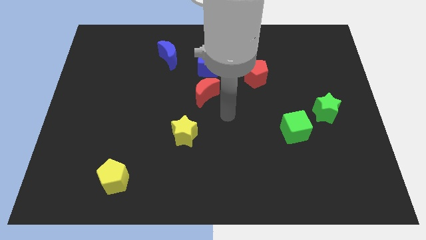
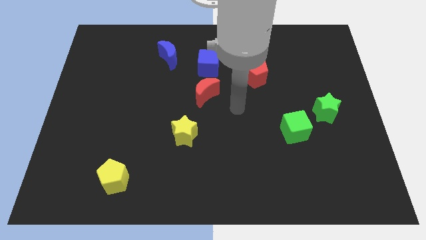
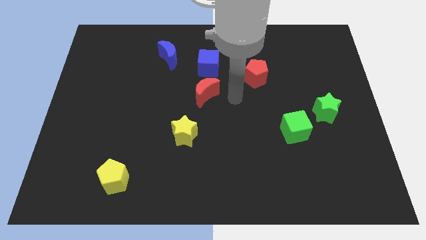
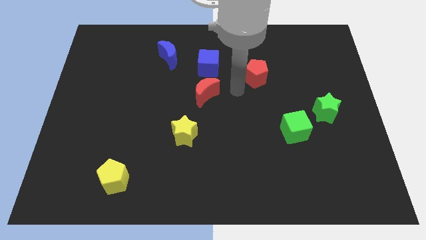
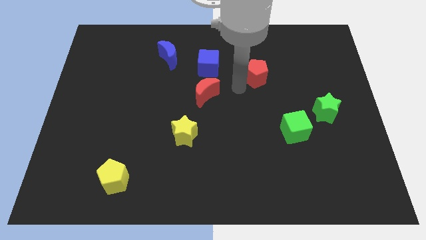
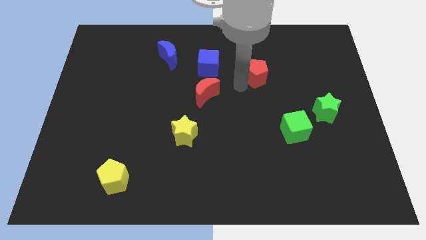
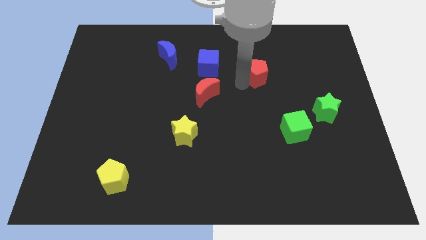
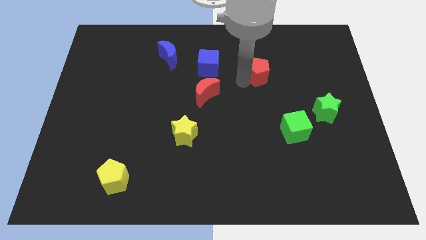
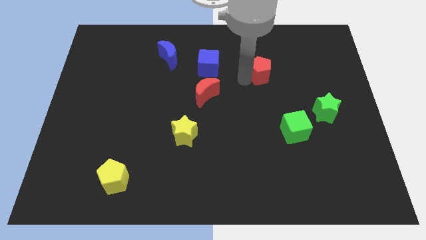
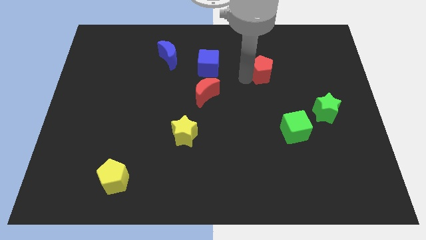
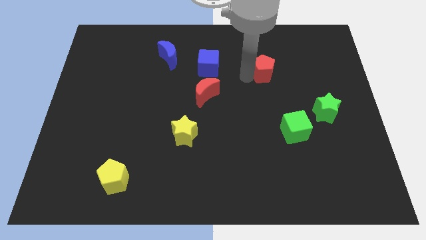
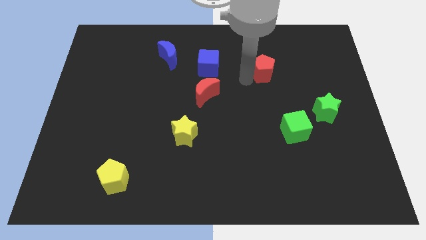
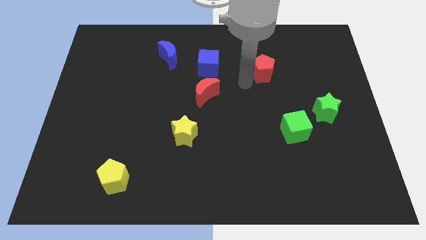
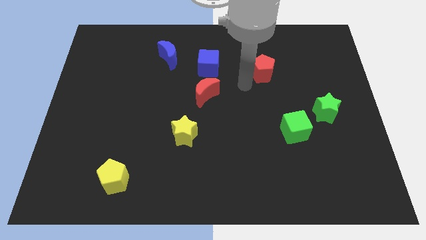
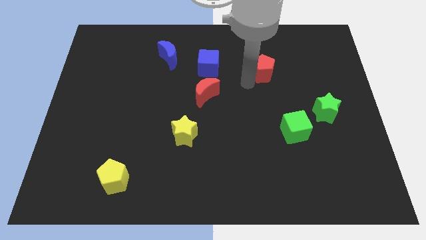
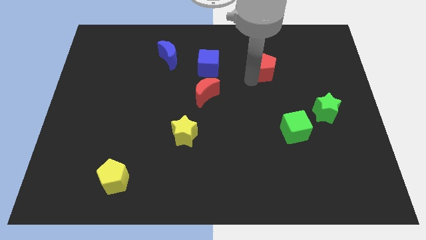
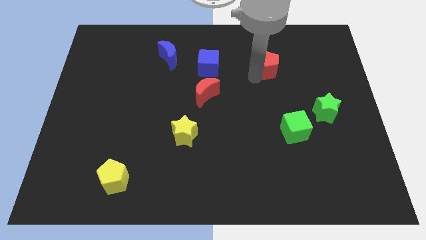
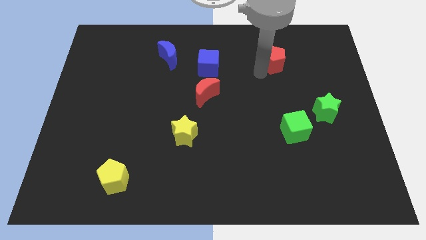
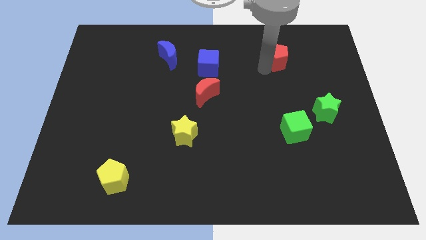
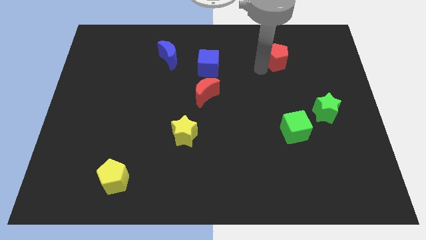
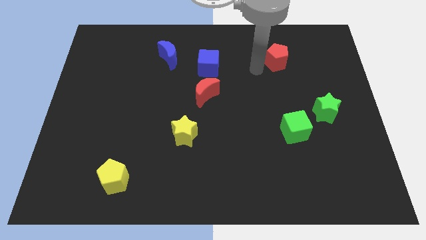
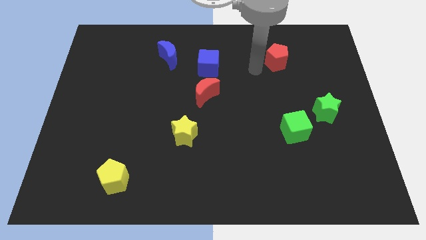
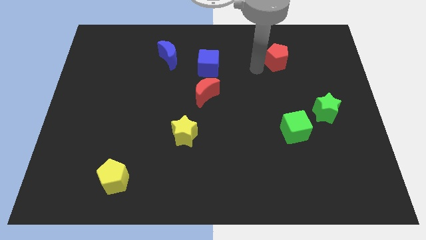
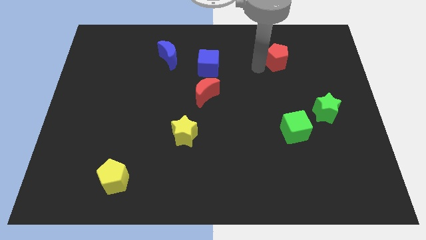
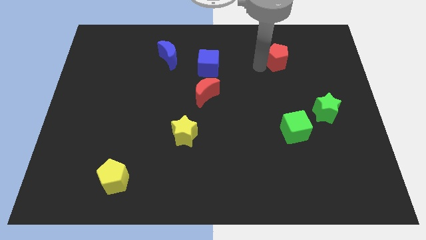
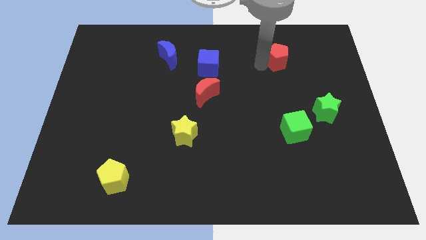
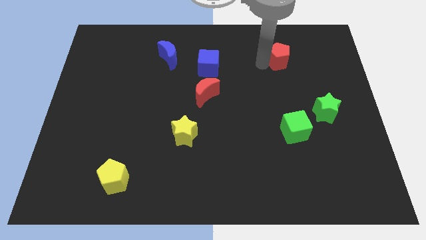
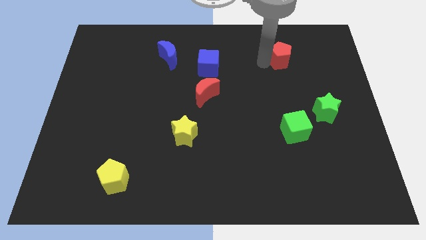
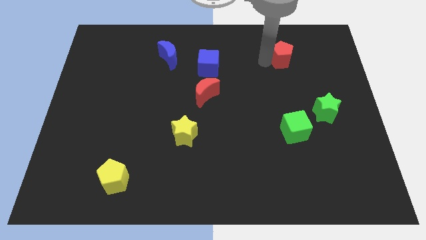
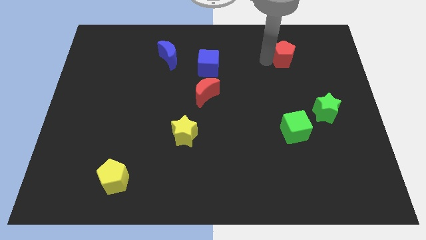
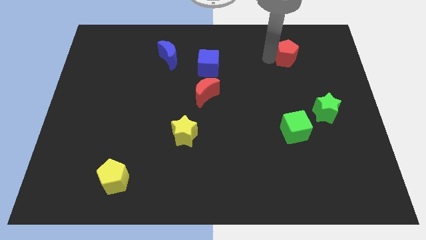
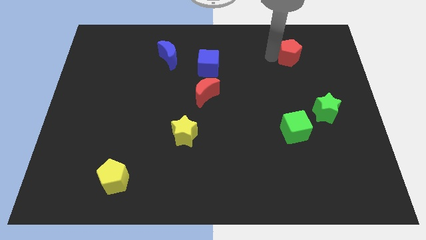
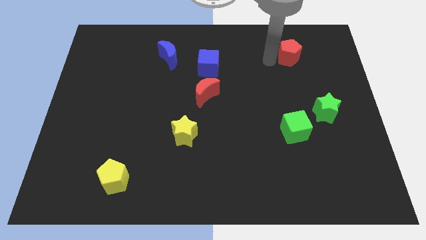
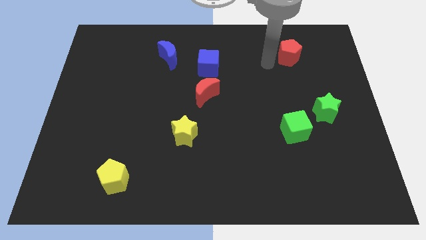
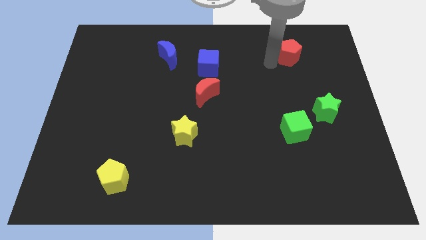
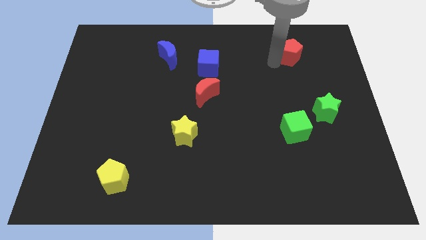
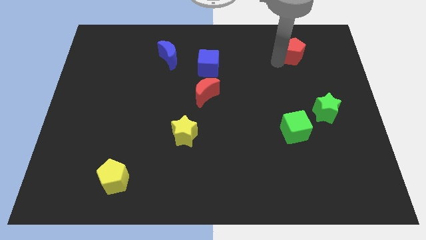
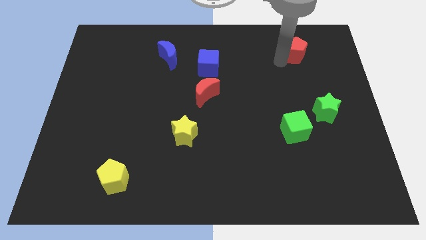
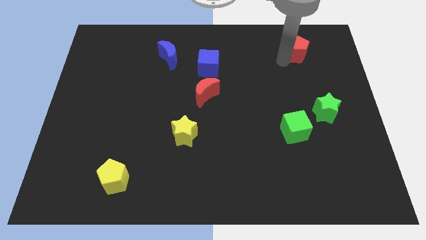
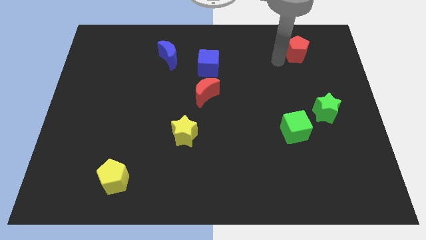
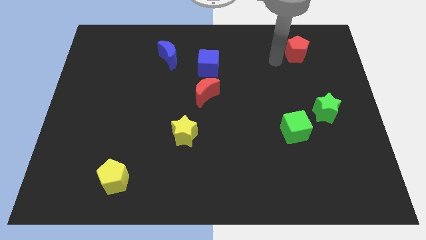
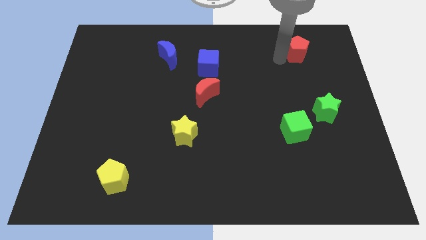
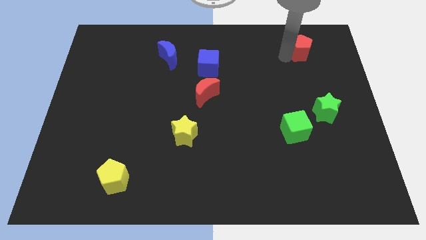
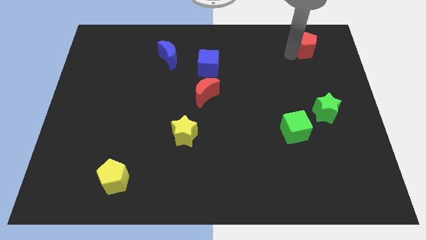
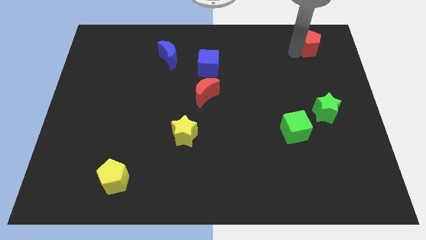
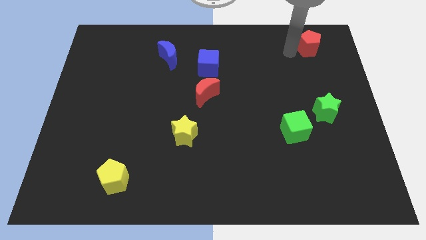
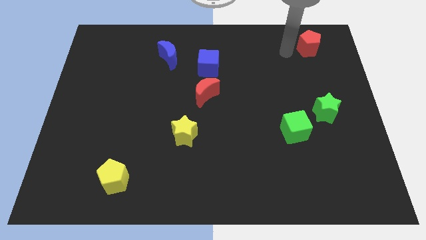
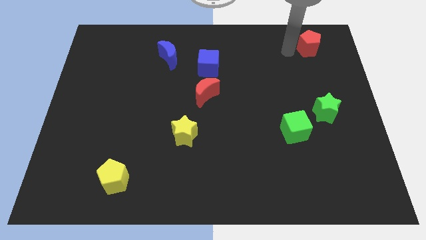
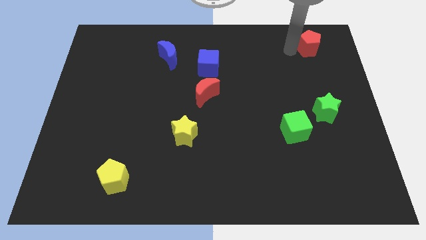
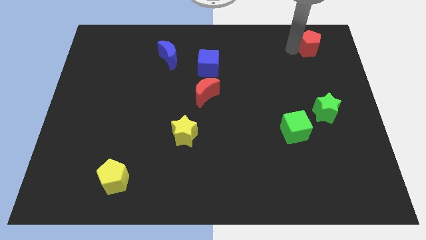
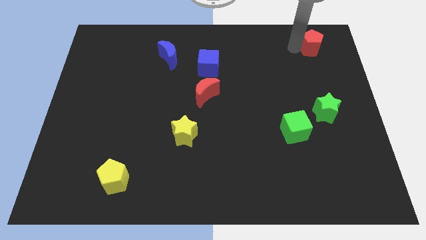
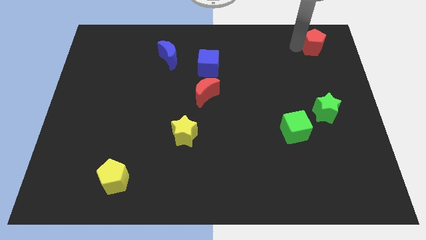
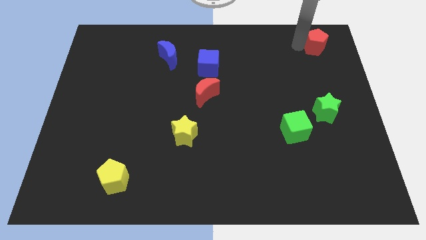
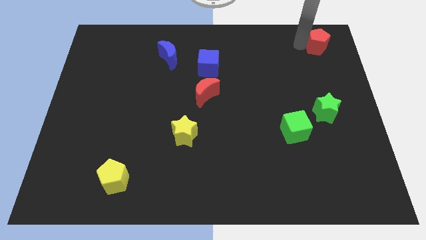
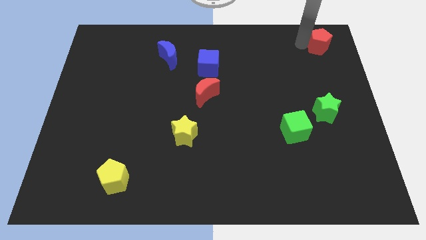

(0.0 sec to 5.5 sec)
slide the red pentagon to the top right corner

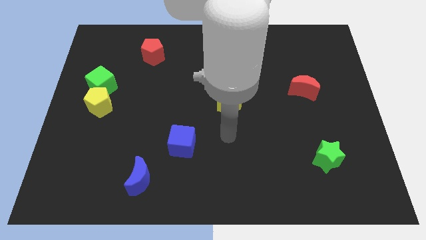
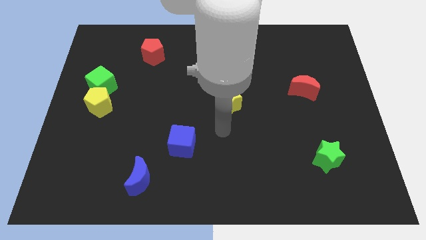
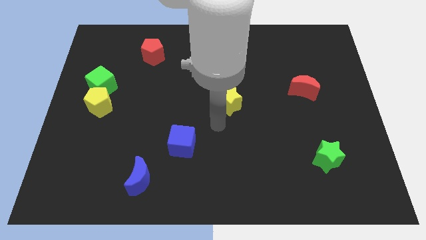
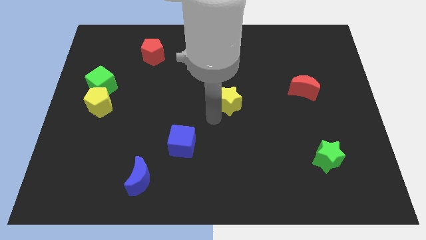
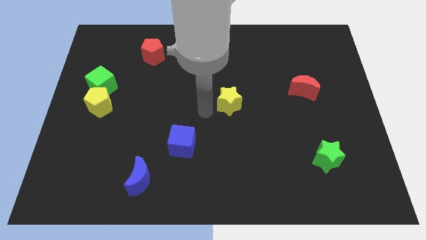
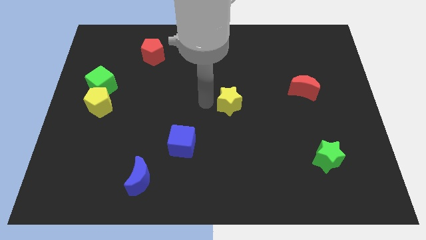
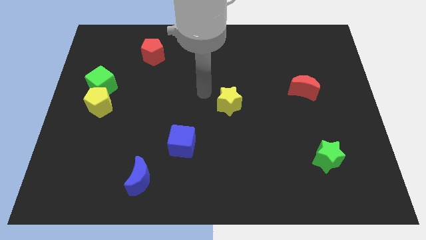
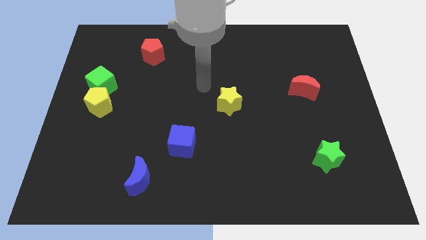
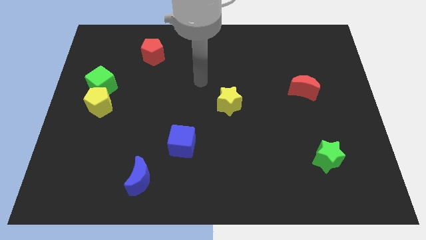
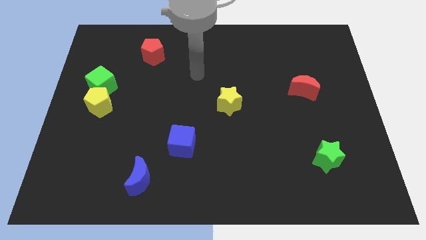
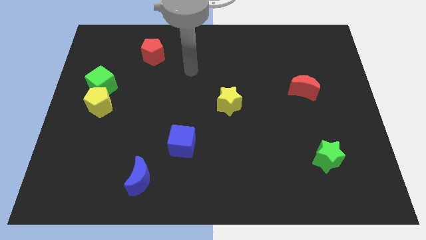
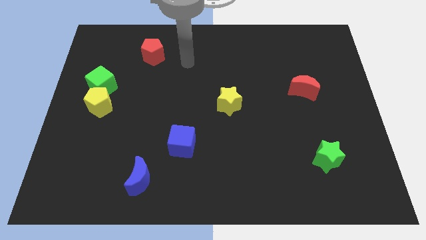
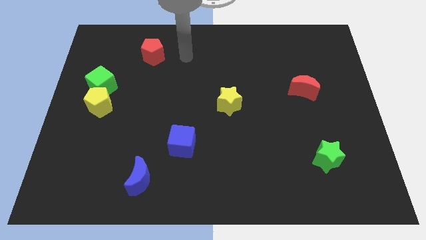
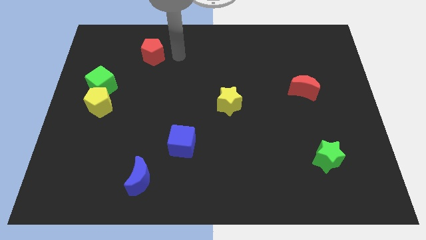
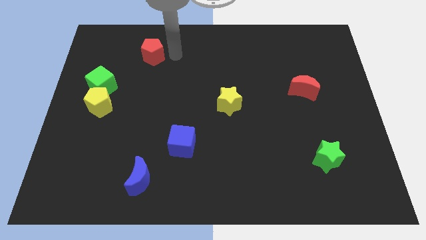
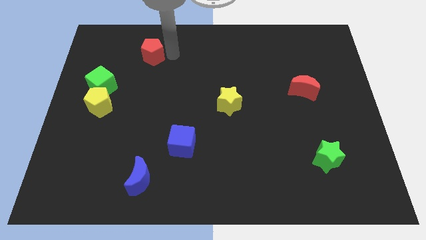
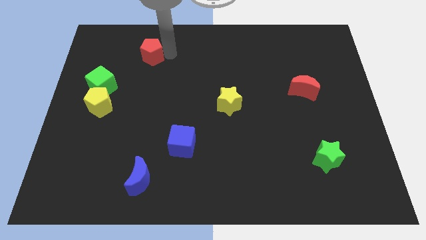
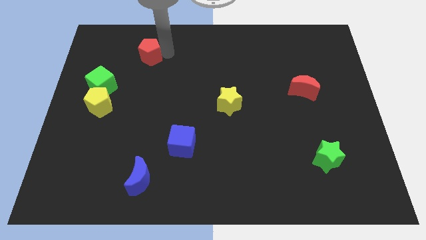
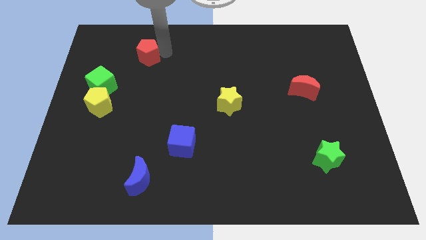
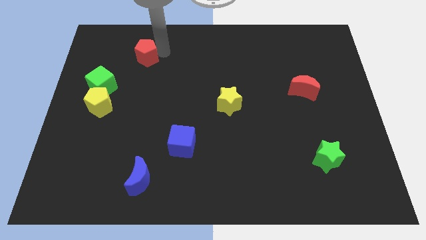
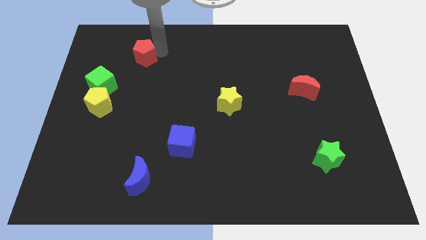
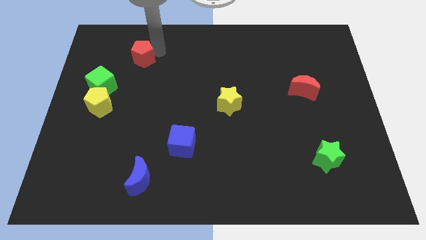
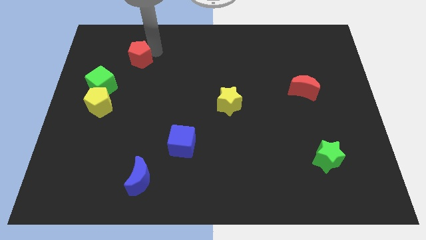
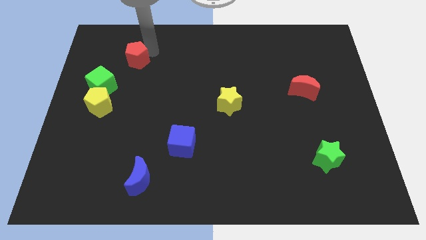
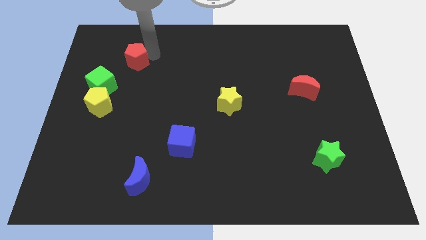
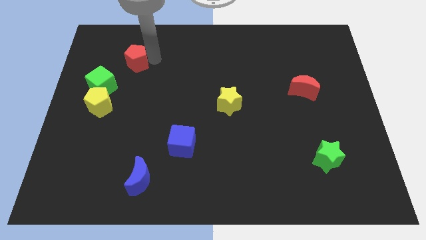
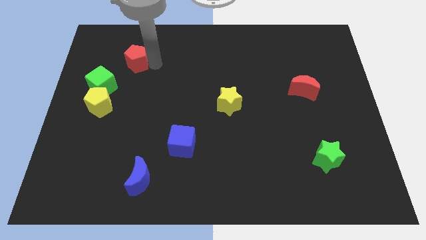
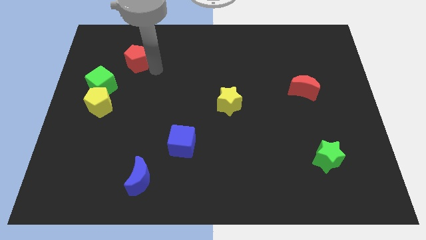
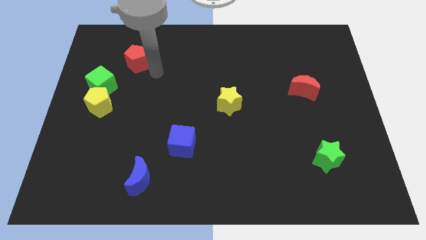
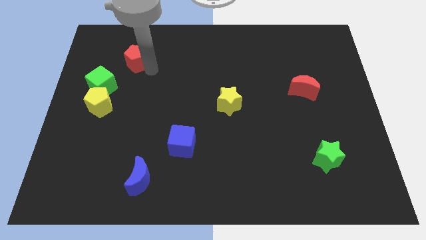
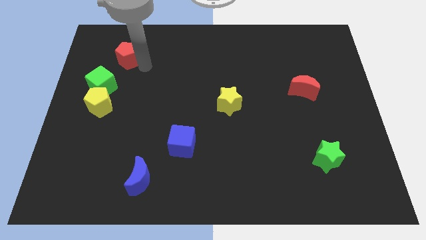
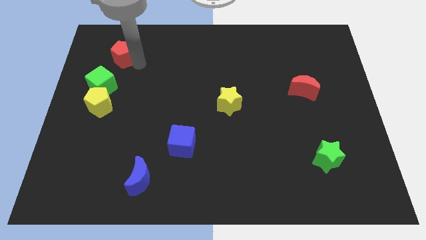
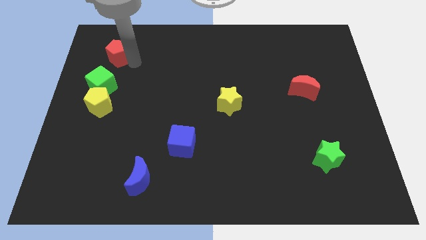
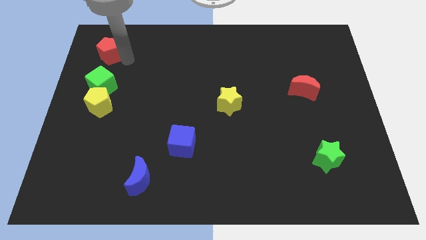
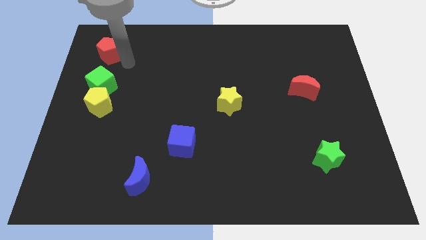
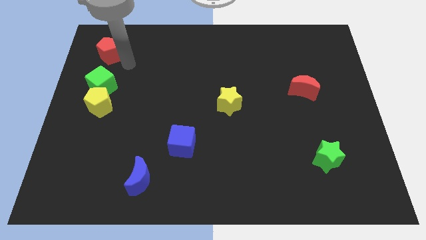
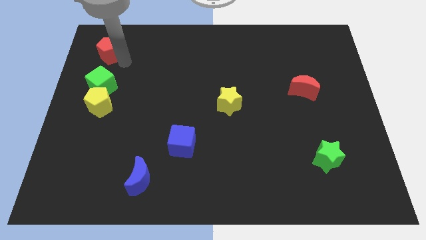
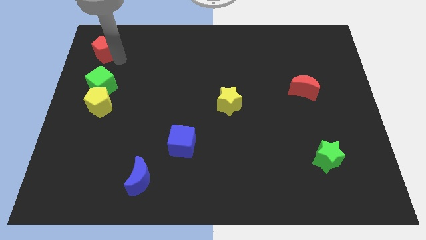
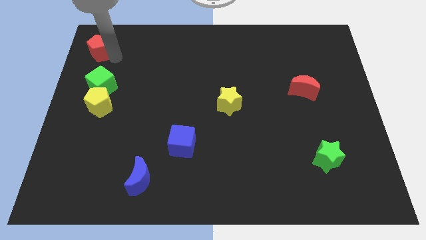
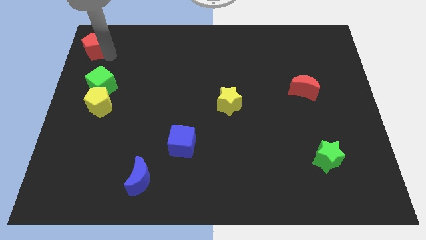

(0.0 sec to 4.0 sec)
move the red pentagon to the upper left corner
